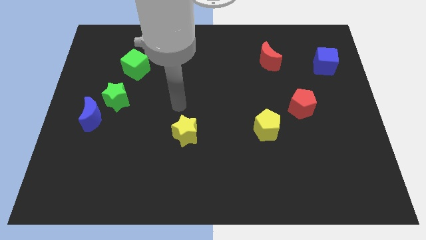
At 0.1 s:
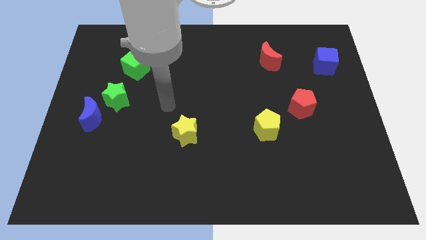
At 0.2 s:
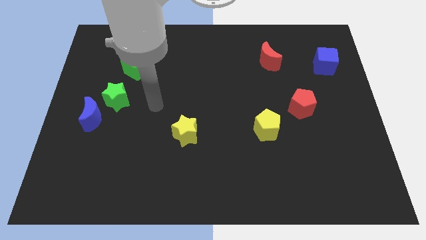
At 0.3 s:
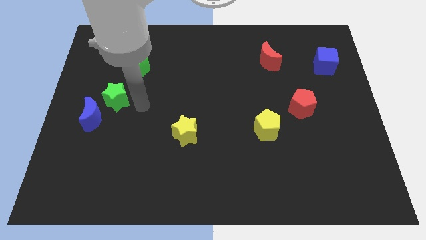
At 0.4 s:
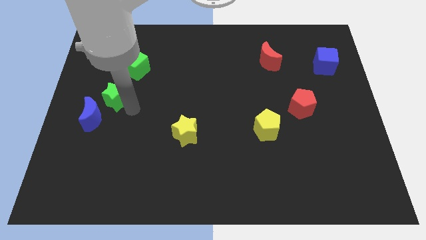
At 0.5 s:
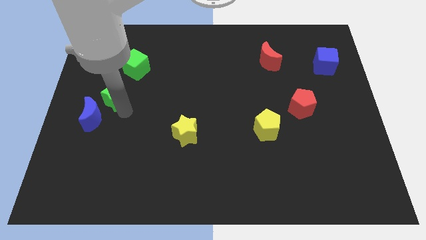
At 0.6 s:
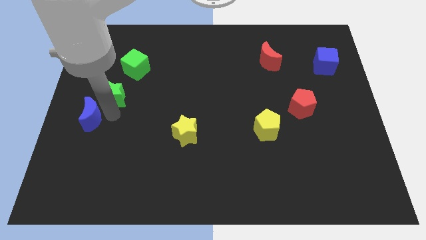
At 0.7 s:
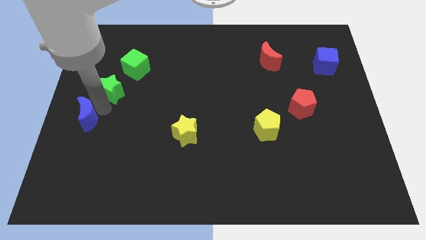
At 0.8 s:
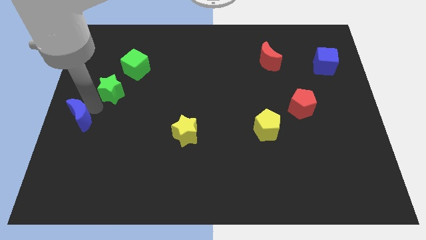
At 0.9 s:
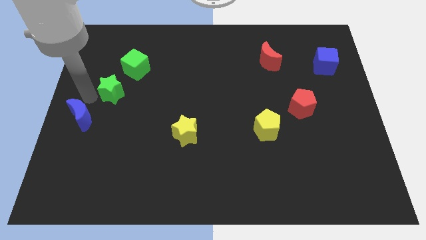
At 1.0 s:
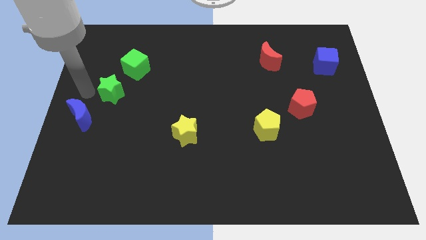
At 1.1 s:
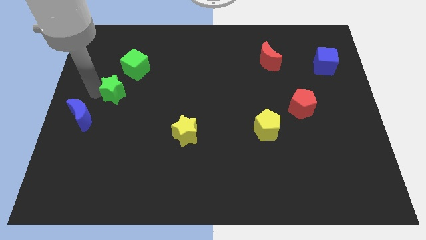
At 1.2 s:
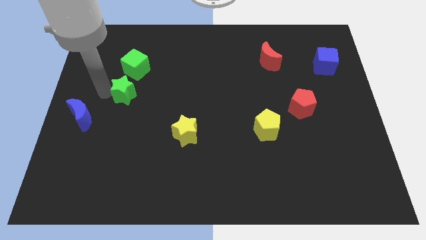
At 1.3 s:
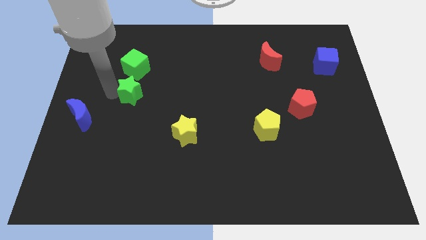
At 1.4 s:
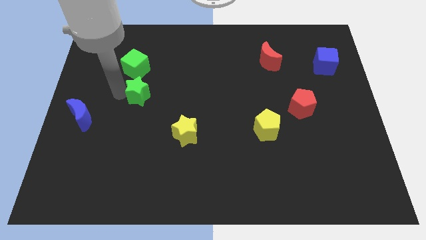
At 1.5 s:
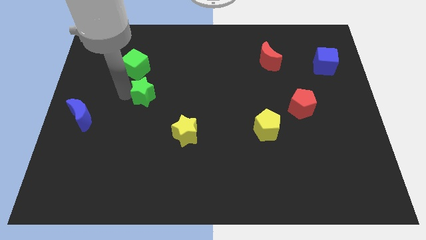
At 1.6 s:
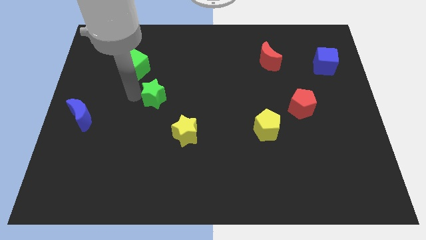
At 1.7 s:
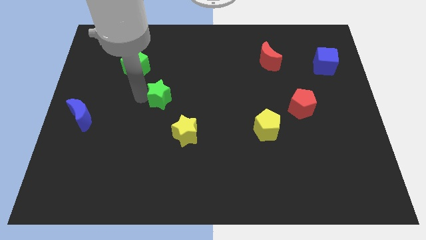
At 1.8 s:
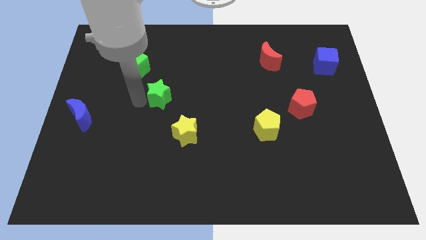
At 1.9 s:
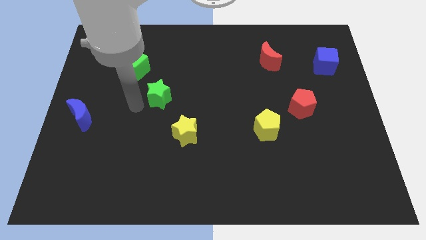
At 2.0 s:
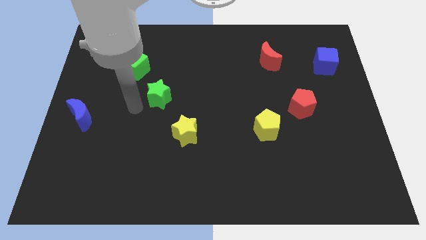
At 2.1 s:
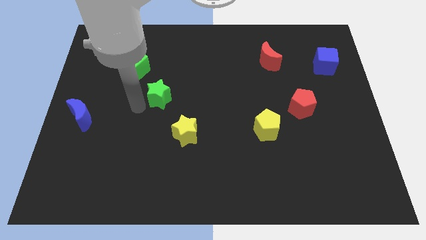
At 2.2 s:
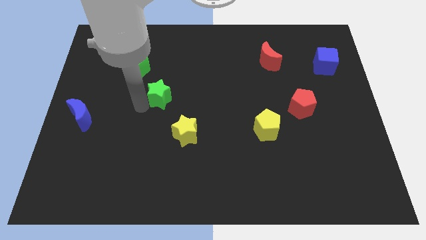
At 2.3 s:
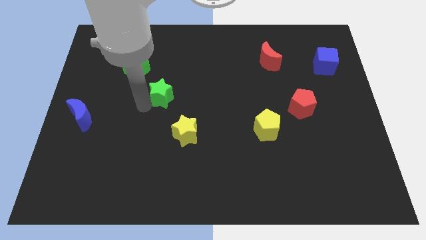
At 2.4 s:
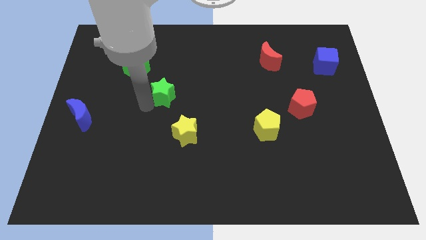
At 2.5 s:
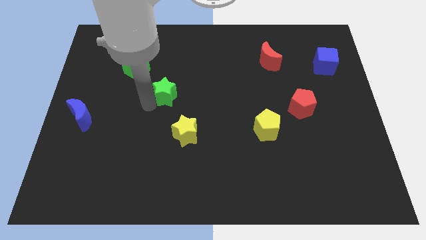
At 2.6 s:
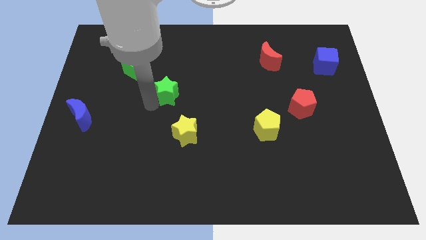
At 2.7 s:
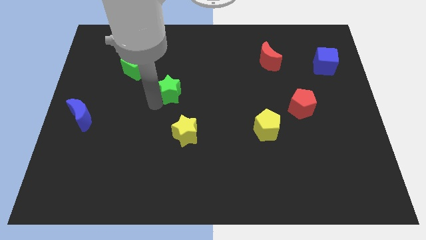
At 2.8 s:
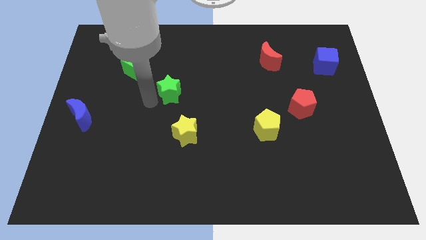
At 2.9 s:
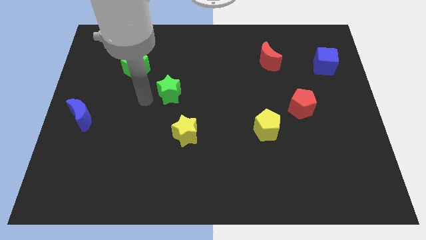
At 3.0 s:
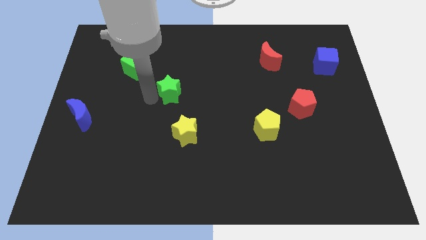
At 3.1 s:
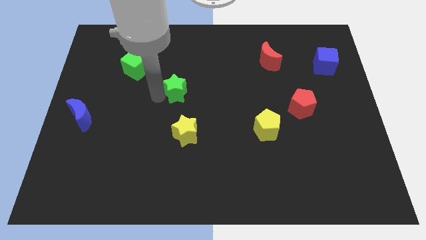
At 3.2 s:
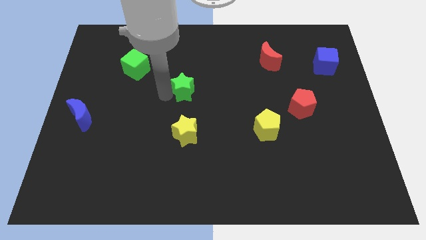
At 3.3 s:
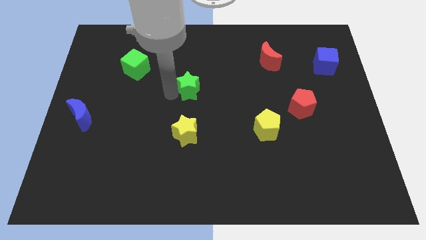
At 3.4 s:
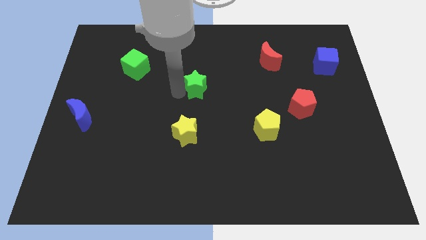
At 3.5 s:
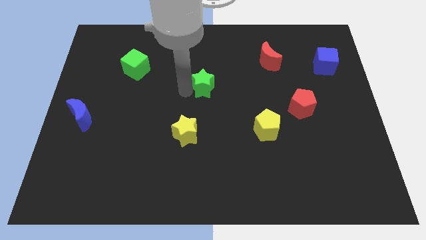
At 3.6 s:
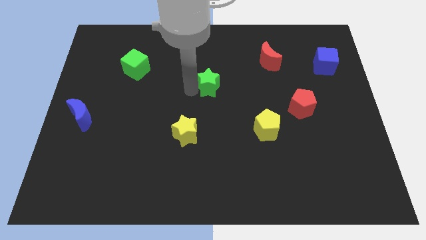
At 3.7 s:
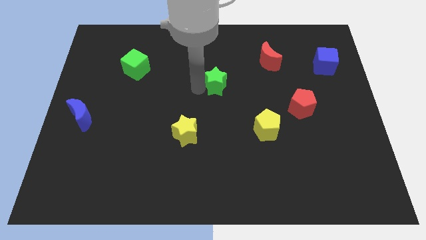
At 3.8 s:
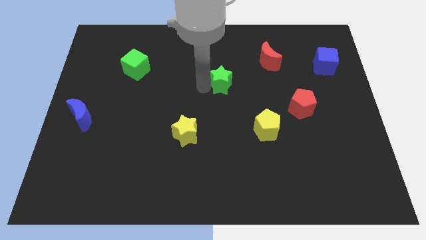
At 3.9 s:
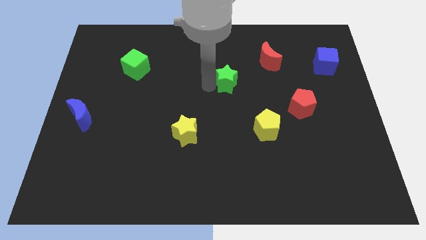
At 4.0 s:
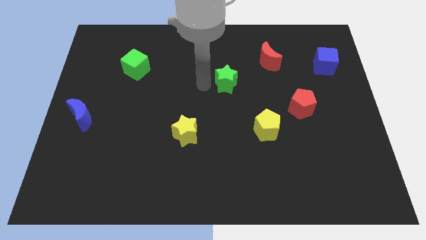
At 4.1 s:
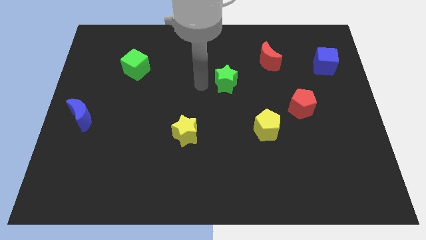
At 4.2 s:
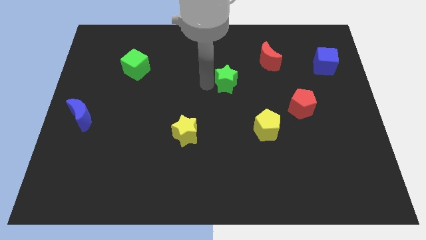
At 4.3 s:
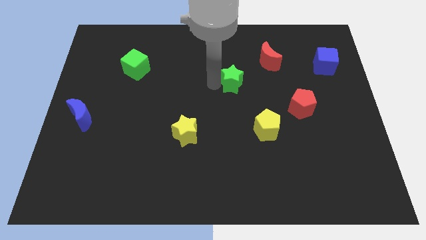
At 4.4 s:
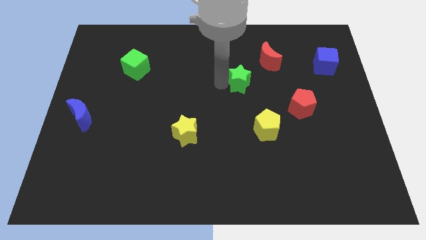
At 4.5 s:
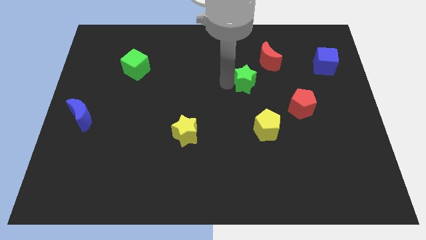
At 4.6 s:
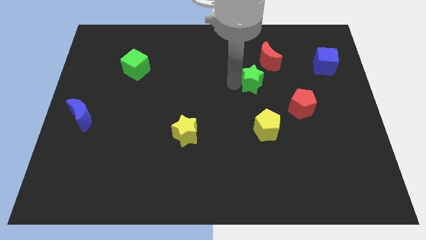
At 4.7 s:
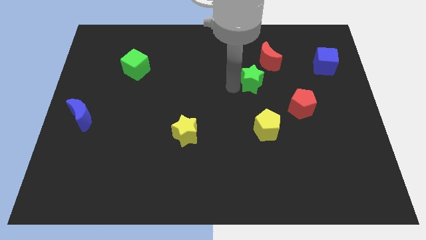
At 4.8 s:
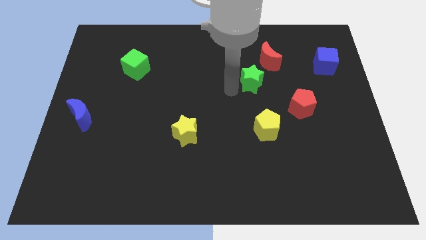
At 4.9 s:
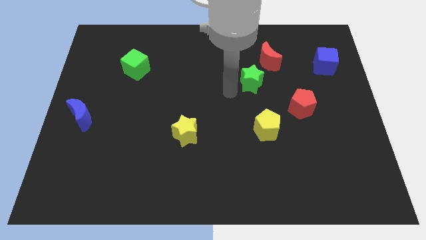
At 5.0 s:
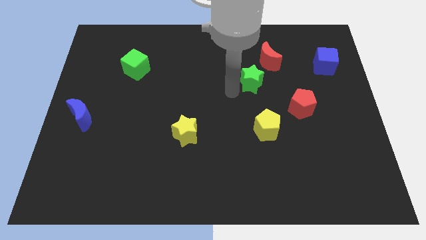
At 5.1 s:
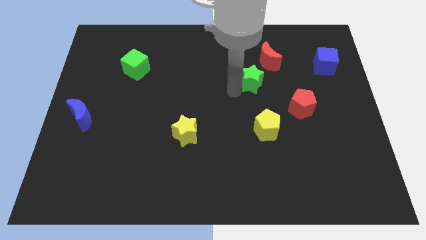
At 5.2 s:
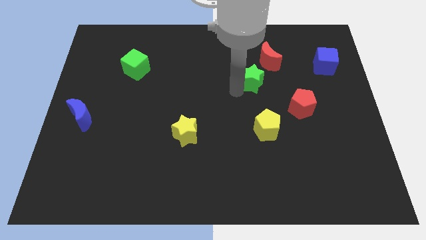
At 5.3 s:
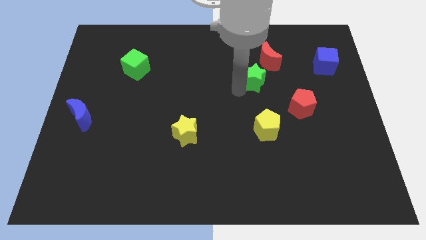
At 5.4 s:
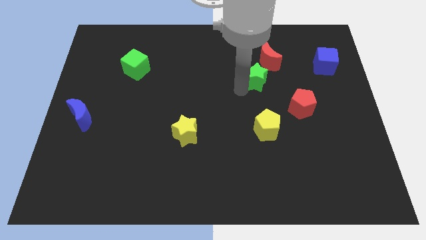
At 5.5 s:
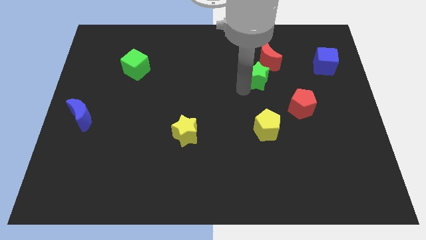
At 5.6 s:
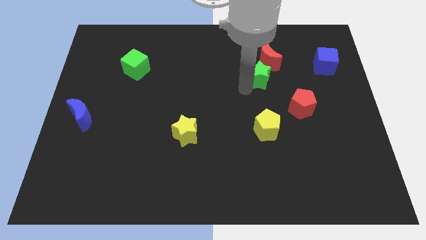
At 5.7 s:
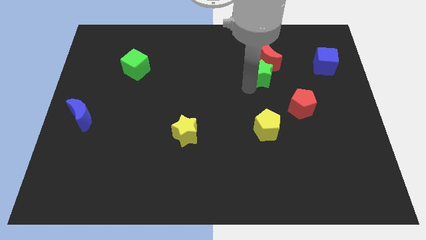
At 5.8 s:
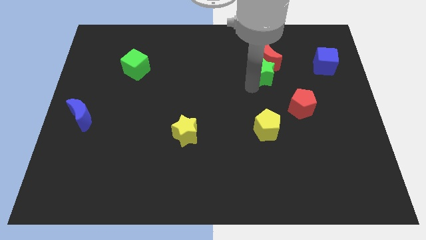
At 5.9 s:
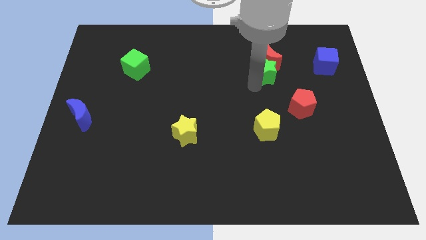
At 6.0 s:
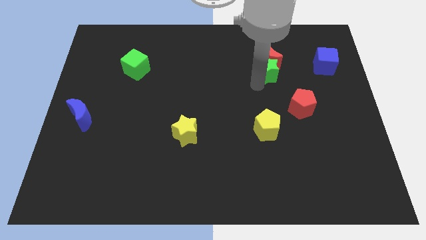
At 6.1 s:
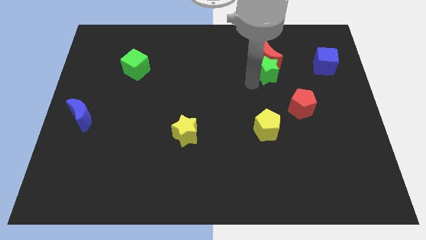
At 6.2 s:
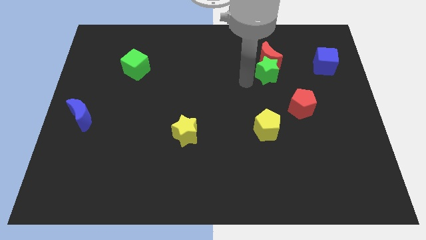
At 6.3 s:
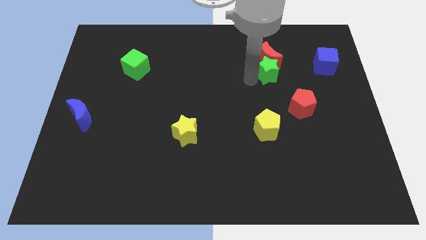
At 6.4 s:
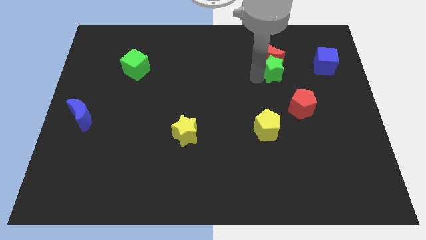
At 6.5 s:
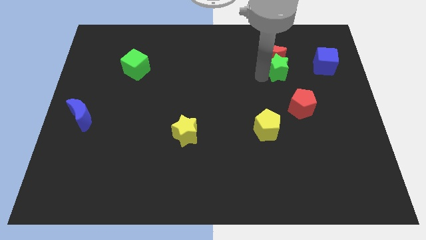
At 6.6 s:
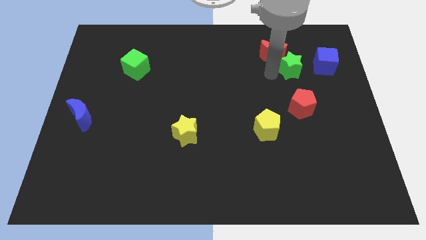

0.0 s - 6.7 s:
put the green star right of the red moon
